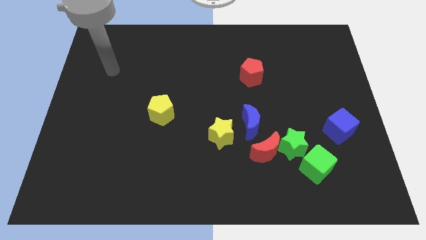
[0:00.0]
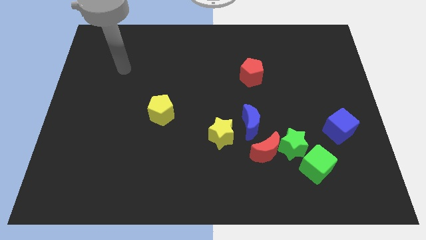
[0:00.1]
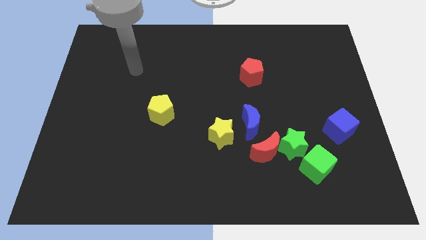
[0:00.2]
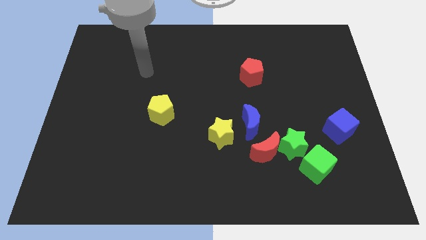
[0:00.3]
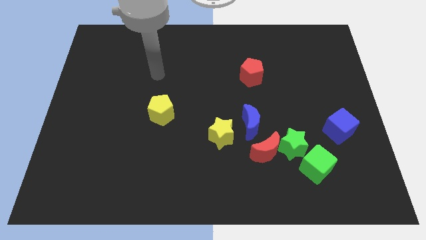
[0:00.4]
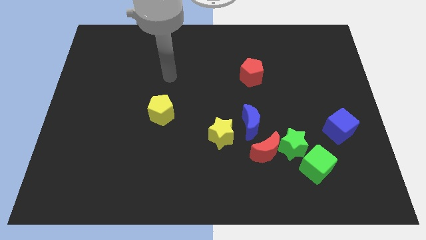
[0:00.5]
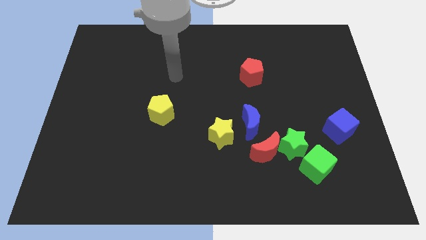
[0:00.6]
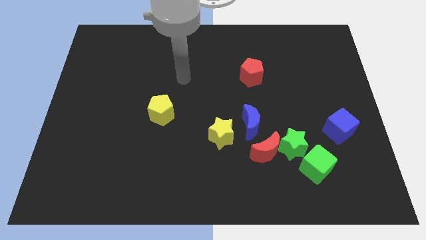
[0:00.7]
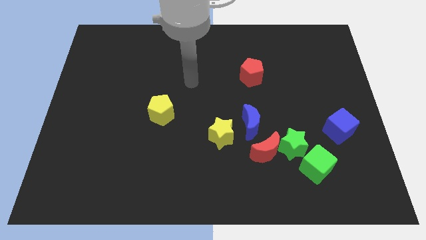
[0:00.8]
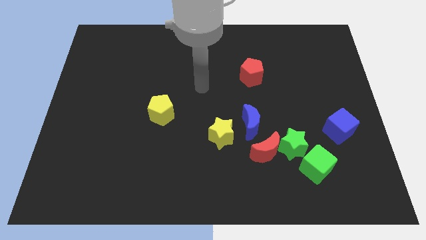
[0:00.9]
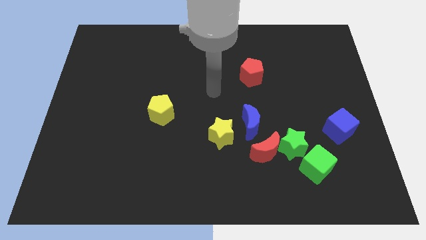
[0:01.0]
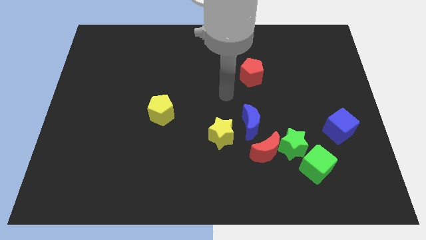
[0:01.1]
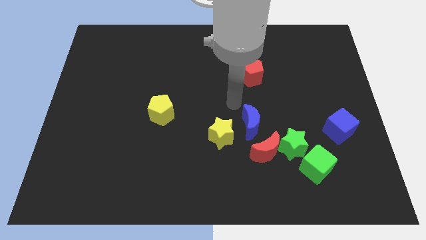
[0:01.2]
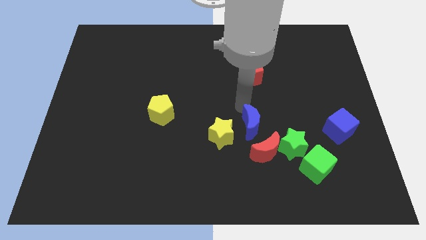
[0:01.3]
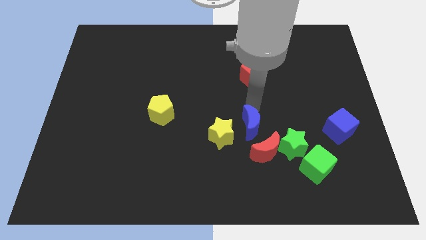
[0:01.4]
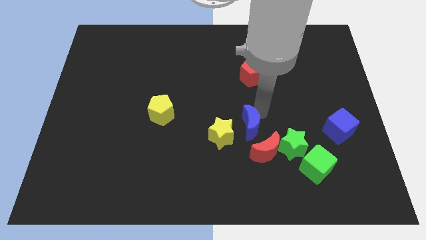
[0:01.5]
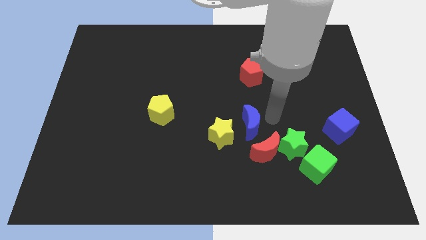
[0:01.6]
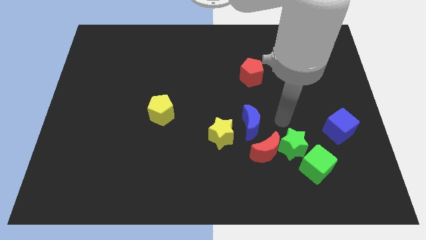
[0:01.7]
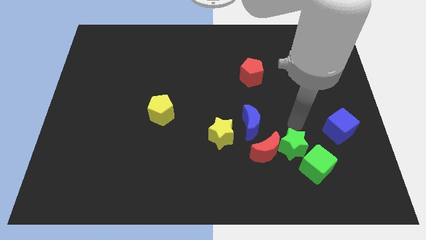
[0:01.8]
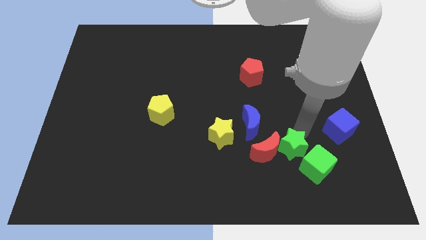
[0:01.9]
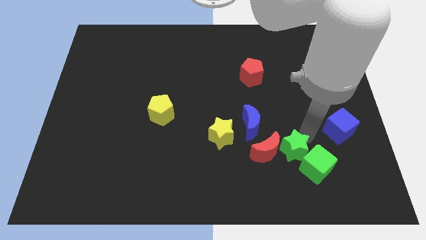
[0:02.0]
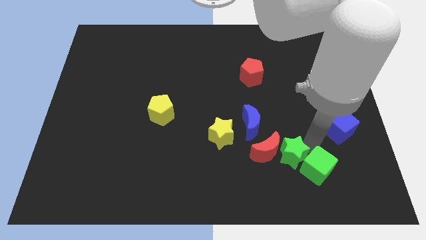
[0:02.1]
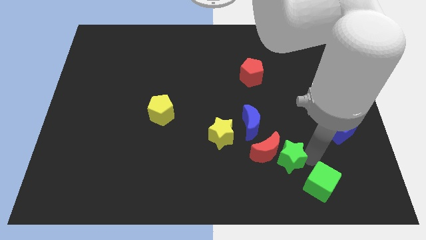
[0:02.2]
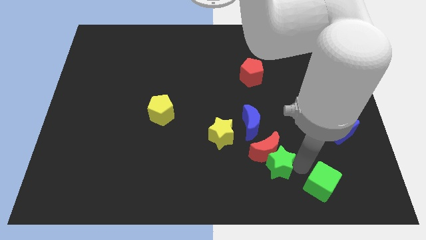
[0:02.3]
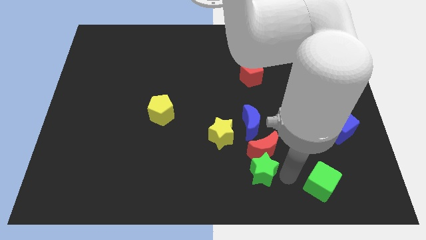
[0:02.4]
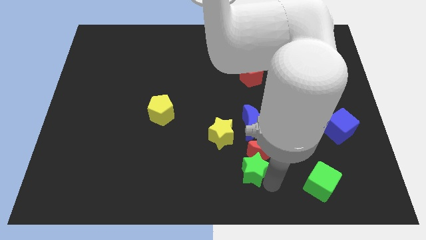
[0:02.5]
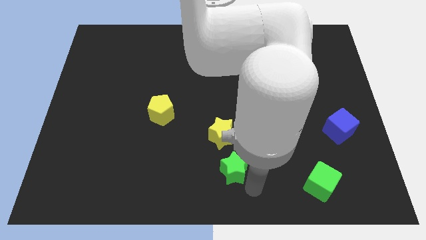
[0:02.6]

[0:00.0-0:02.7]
pull the green star apart from the red moon and green cube

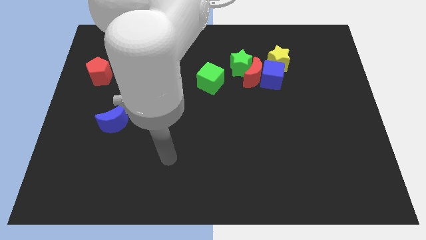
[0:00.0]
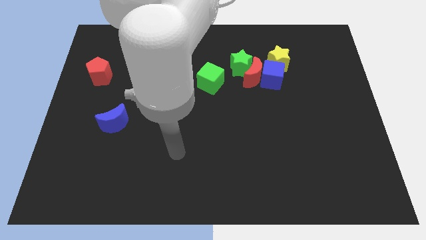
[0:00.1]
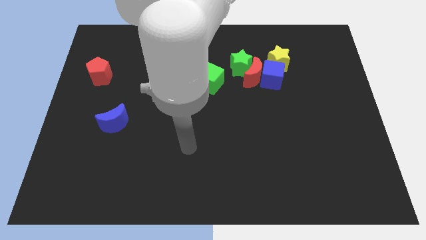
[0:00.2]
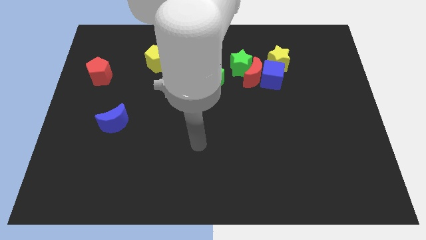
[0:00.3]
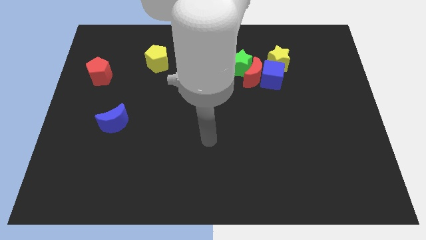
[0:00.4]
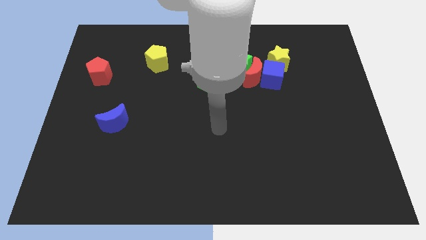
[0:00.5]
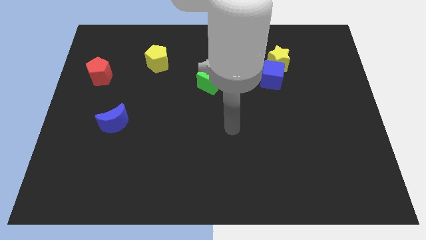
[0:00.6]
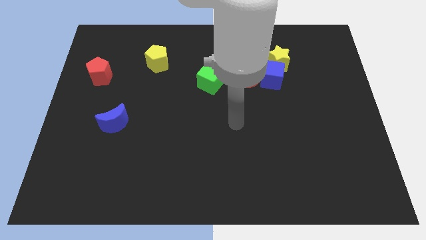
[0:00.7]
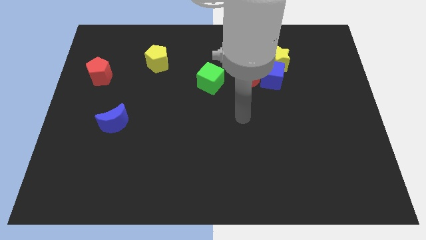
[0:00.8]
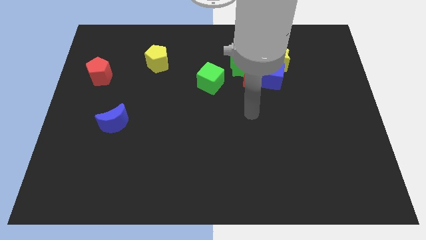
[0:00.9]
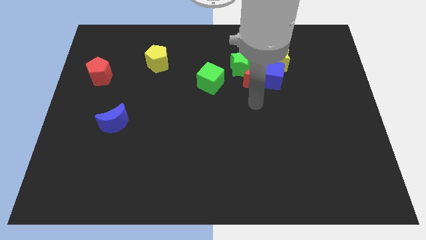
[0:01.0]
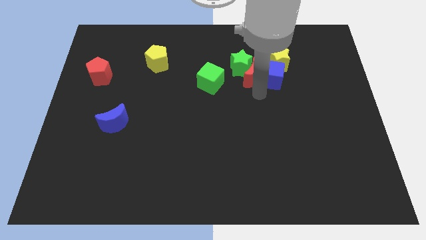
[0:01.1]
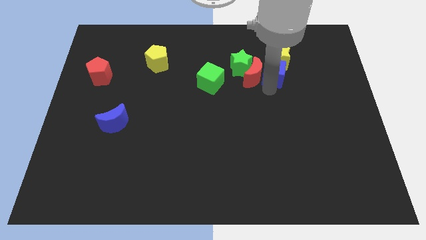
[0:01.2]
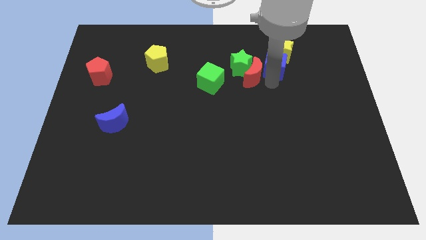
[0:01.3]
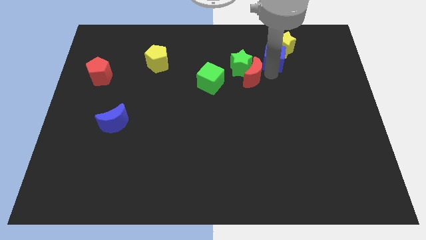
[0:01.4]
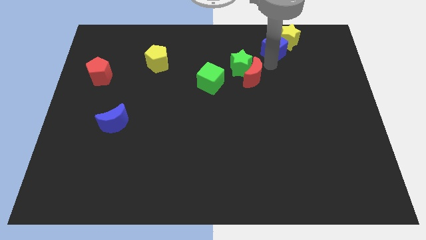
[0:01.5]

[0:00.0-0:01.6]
pull the red moon apart from the group of blocks

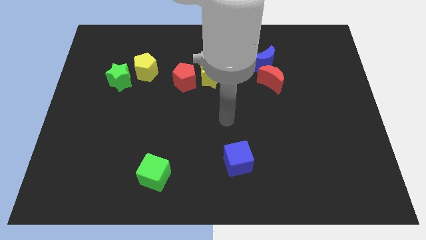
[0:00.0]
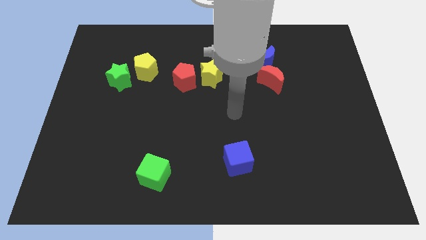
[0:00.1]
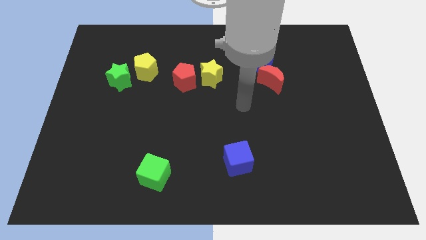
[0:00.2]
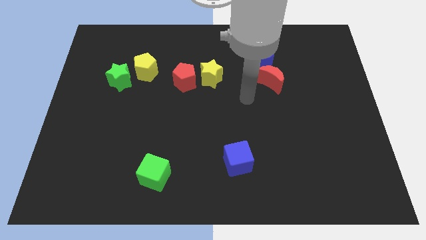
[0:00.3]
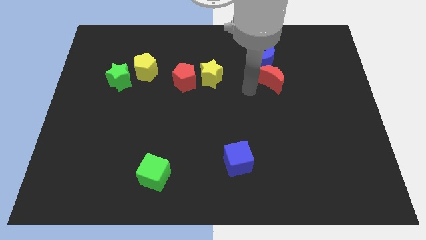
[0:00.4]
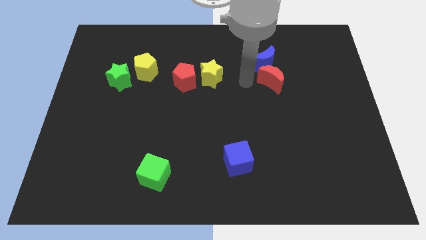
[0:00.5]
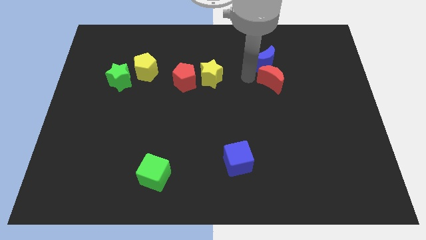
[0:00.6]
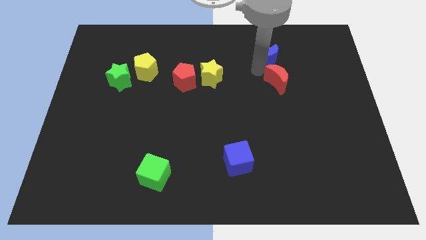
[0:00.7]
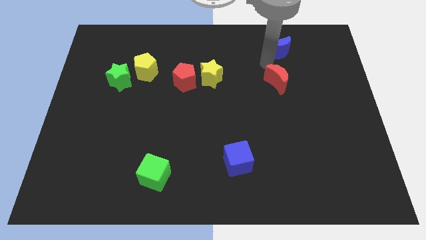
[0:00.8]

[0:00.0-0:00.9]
pull the red moon apart from the blue moon

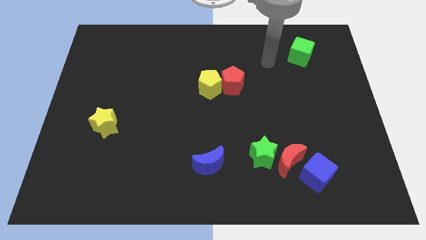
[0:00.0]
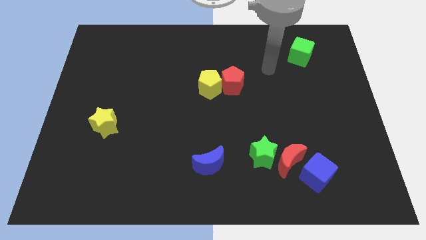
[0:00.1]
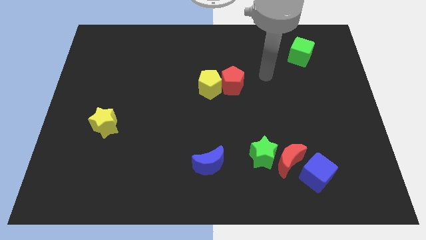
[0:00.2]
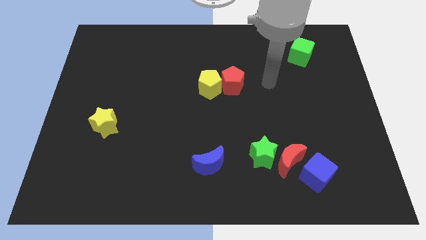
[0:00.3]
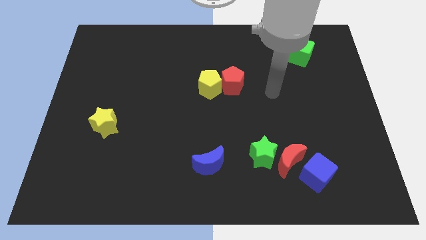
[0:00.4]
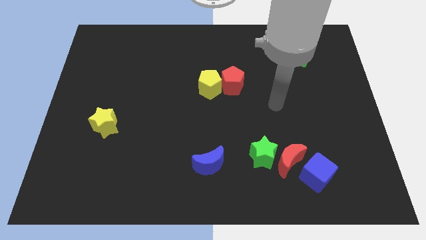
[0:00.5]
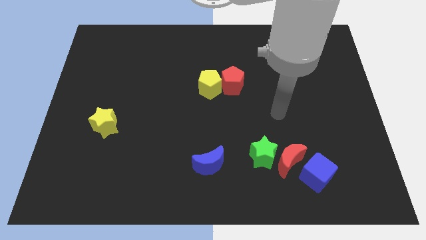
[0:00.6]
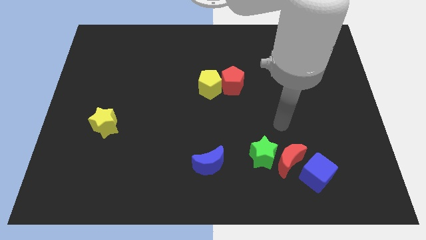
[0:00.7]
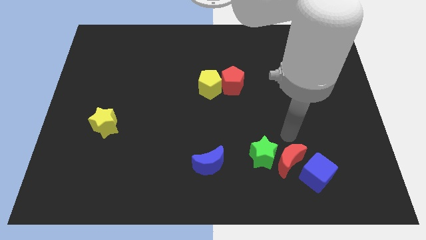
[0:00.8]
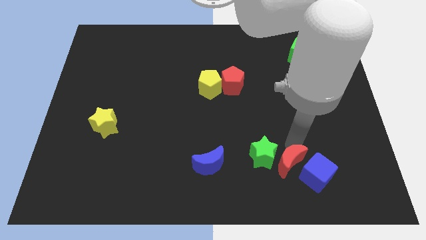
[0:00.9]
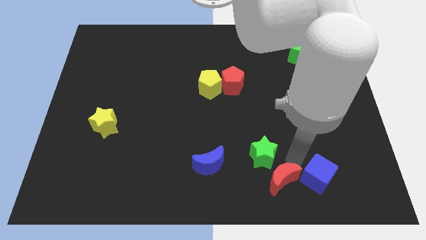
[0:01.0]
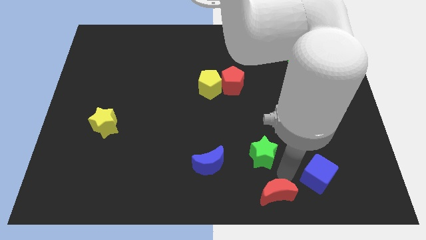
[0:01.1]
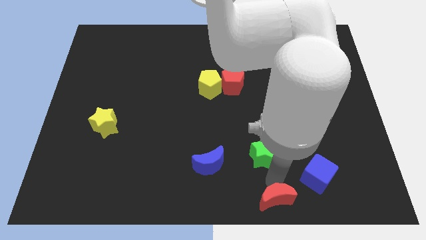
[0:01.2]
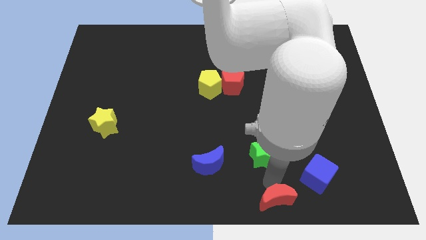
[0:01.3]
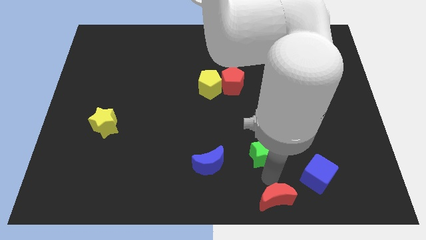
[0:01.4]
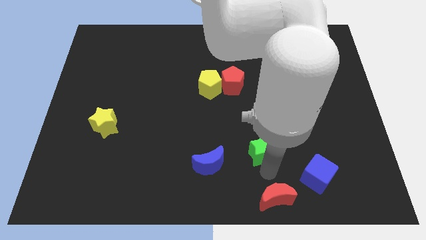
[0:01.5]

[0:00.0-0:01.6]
move the green star away from the red moon

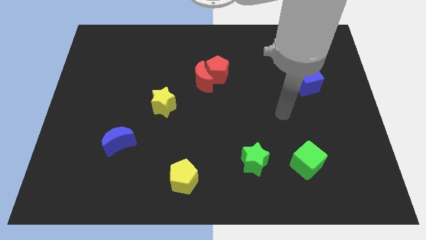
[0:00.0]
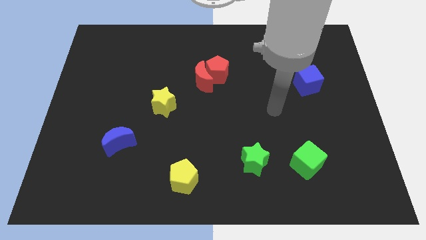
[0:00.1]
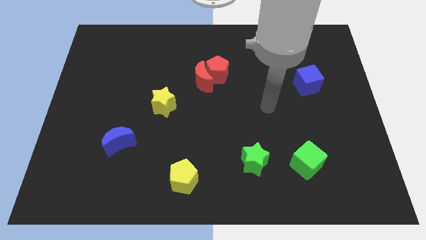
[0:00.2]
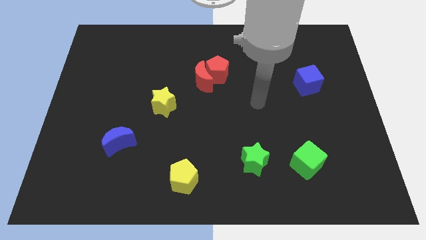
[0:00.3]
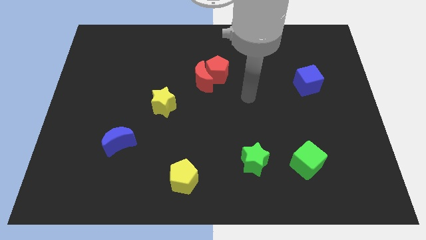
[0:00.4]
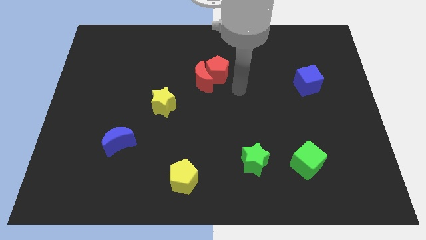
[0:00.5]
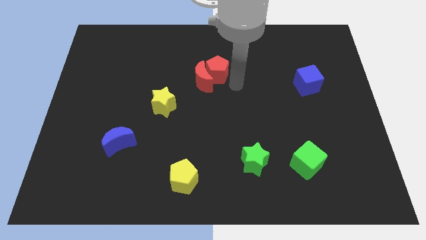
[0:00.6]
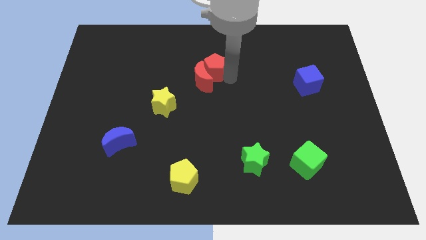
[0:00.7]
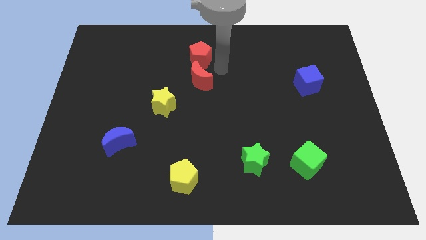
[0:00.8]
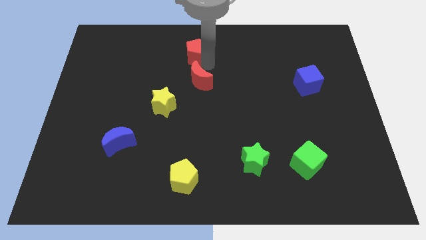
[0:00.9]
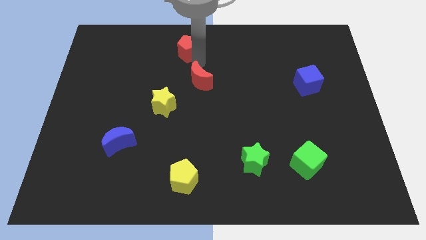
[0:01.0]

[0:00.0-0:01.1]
pull the red moon apart from the red pentagon

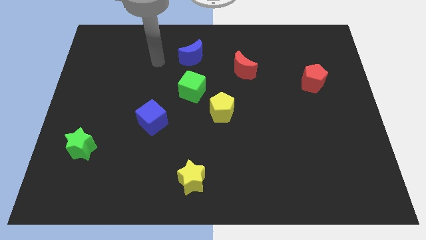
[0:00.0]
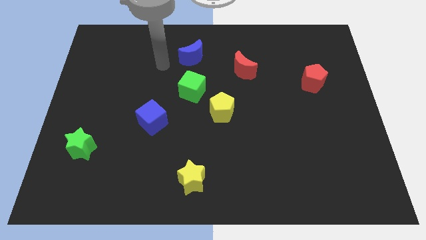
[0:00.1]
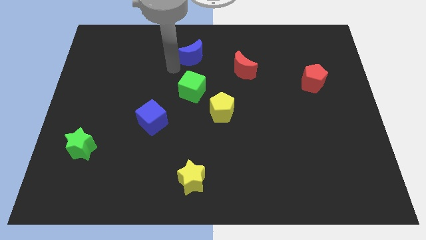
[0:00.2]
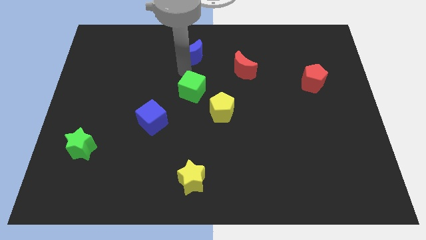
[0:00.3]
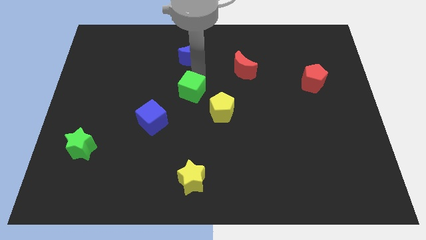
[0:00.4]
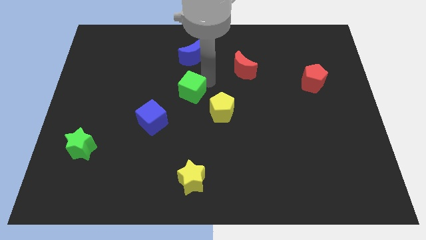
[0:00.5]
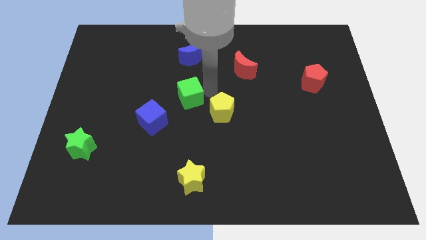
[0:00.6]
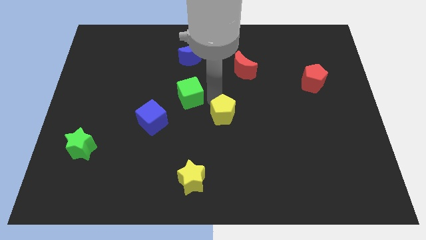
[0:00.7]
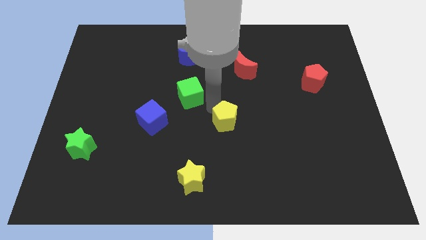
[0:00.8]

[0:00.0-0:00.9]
separate the green cube from the yellow pentagon

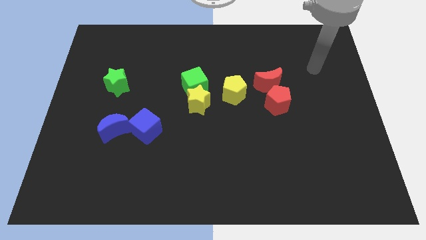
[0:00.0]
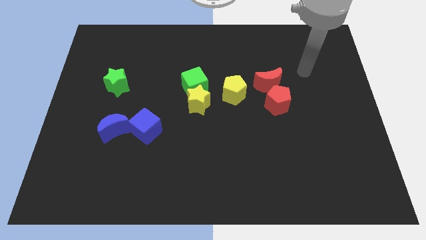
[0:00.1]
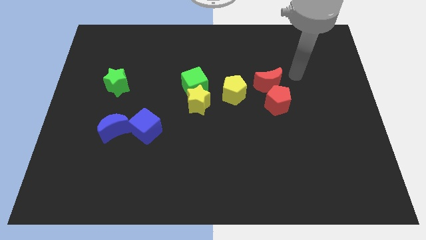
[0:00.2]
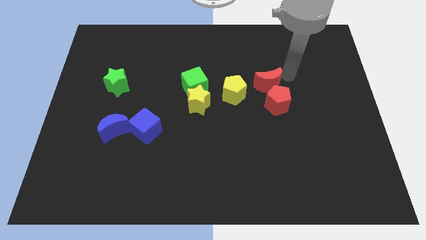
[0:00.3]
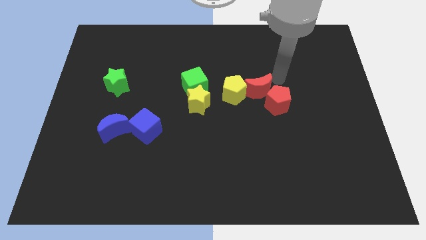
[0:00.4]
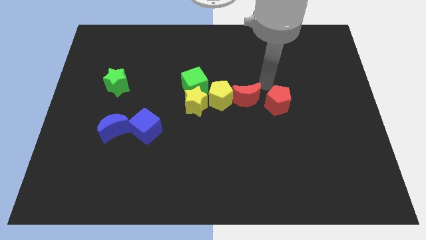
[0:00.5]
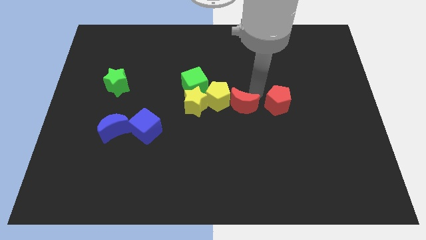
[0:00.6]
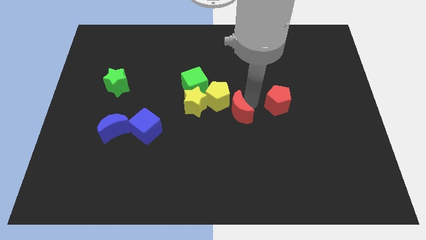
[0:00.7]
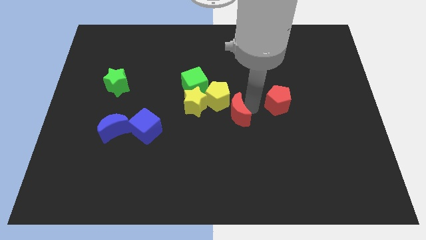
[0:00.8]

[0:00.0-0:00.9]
move the red pentagon away from the red moon
